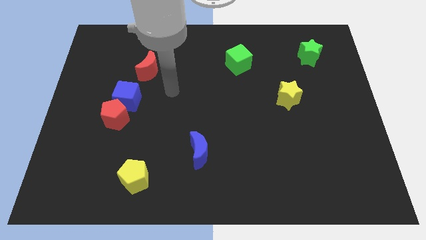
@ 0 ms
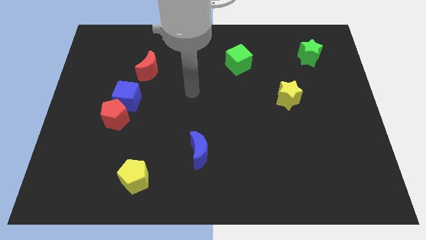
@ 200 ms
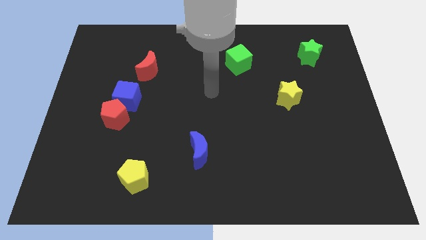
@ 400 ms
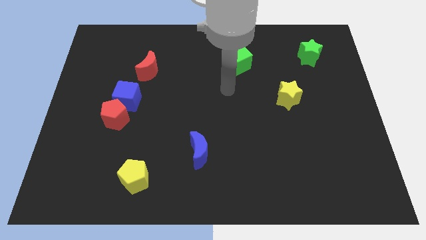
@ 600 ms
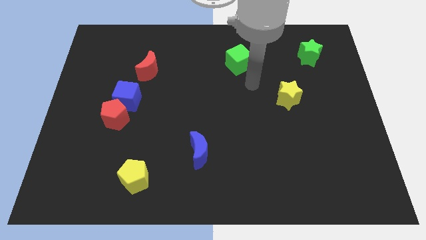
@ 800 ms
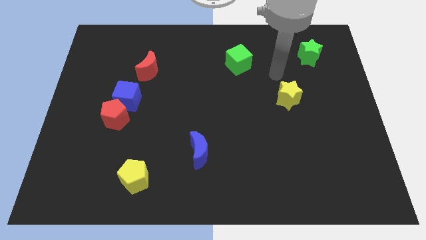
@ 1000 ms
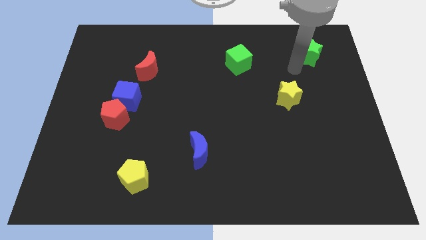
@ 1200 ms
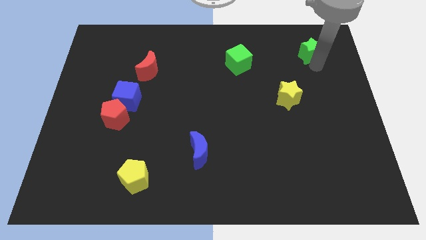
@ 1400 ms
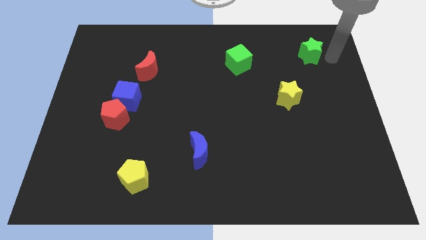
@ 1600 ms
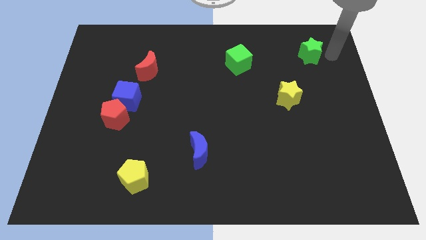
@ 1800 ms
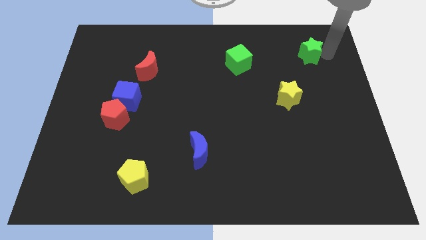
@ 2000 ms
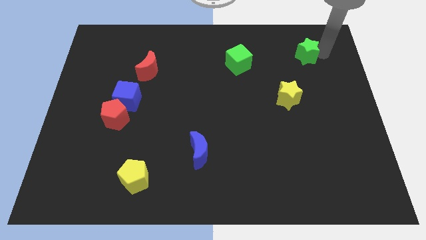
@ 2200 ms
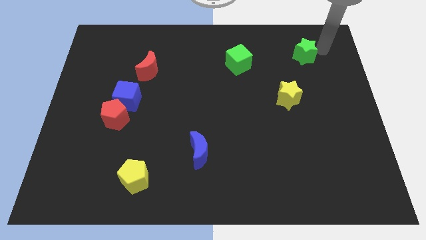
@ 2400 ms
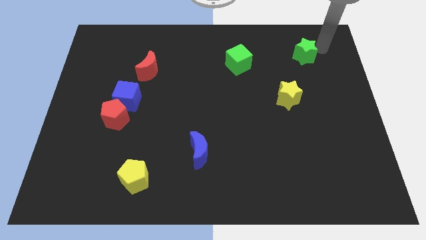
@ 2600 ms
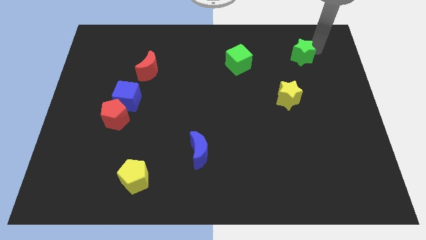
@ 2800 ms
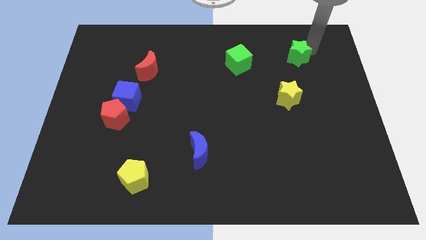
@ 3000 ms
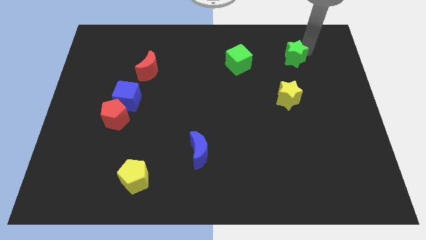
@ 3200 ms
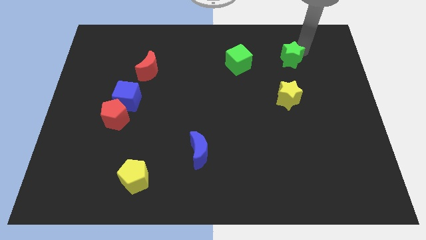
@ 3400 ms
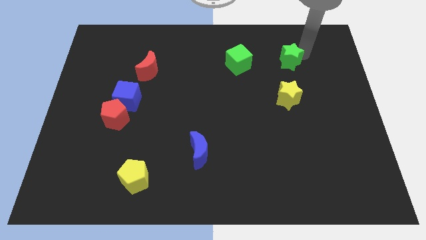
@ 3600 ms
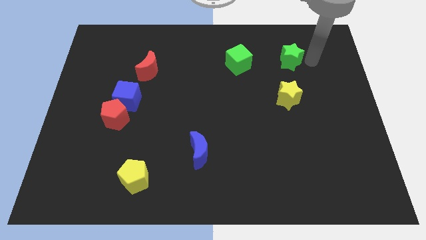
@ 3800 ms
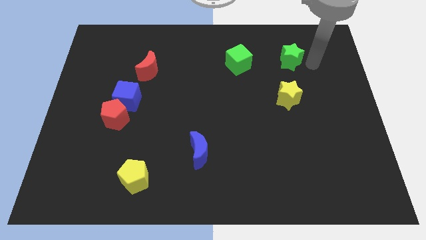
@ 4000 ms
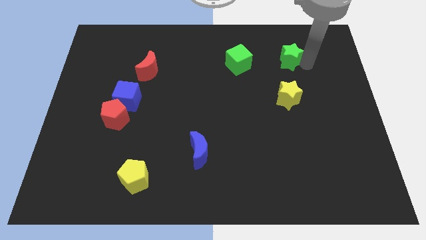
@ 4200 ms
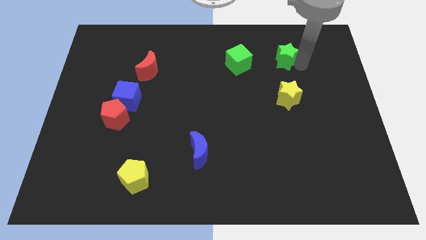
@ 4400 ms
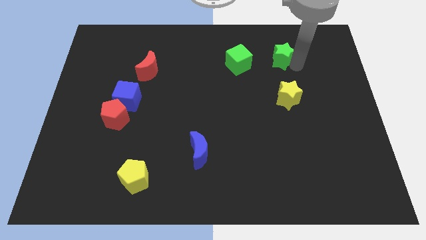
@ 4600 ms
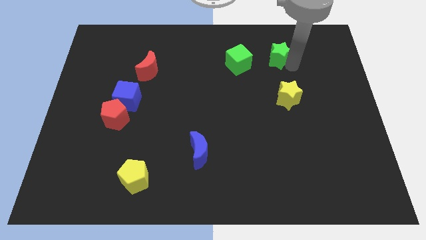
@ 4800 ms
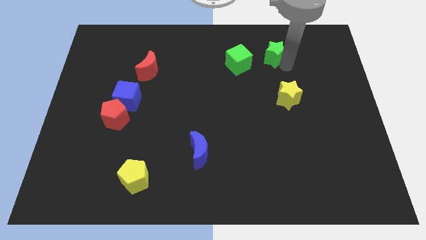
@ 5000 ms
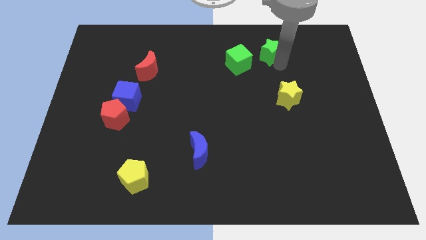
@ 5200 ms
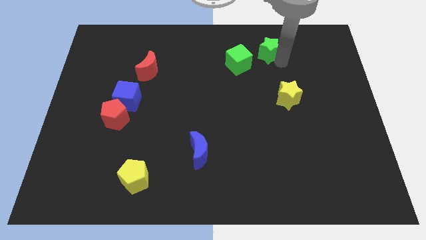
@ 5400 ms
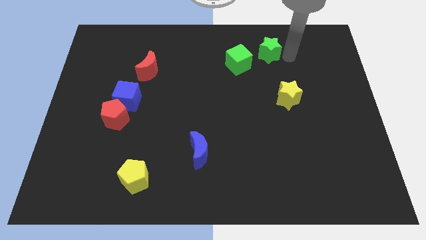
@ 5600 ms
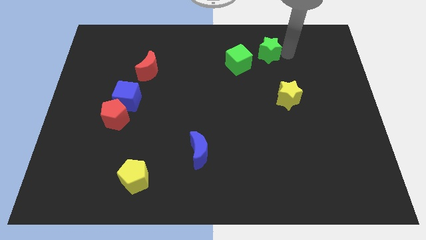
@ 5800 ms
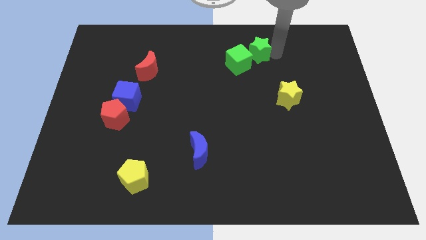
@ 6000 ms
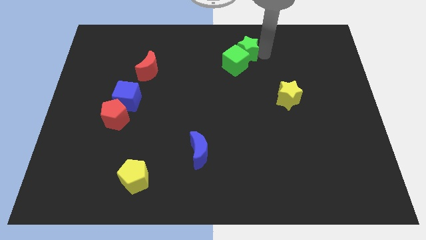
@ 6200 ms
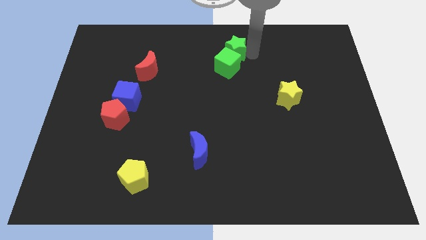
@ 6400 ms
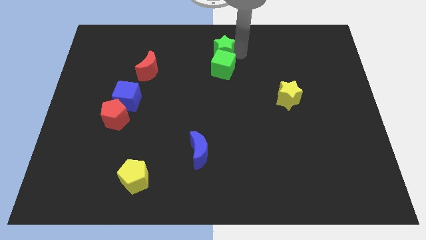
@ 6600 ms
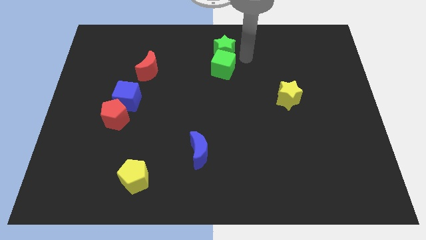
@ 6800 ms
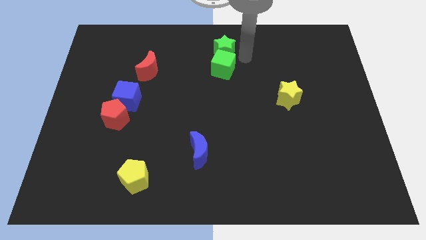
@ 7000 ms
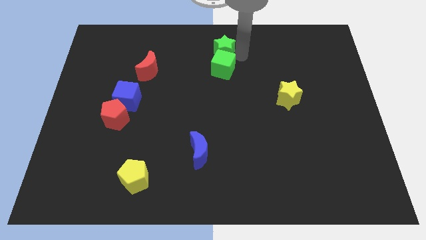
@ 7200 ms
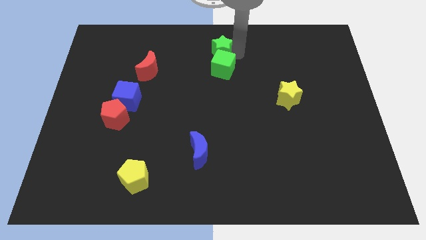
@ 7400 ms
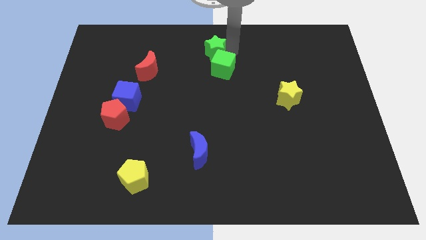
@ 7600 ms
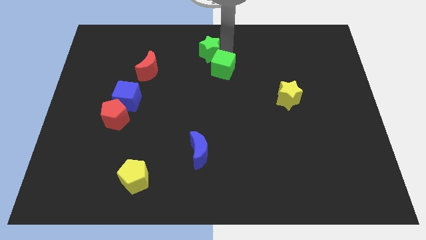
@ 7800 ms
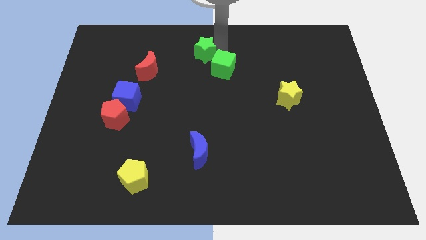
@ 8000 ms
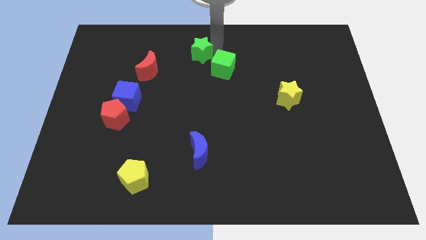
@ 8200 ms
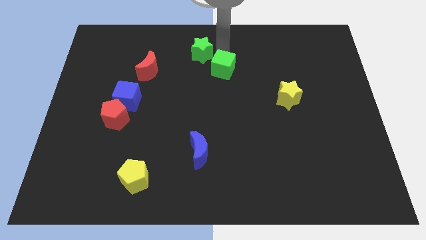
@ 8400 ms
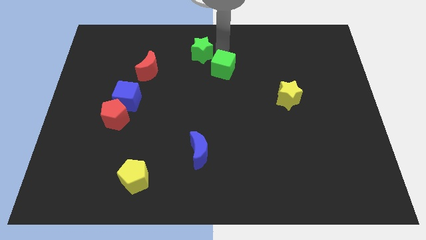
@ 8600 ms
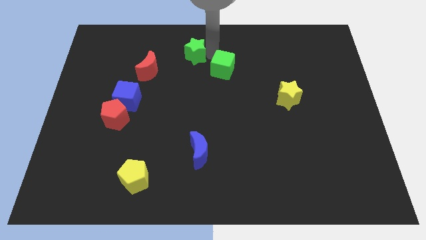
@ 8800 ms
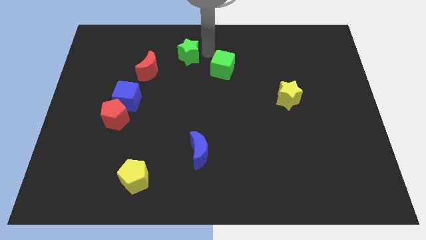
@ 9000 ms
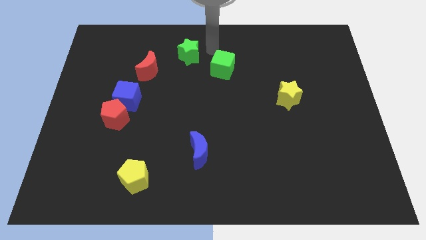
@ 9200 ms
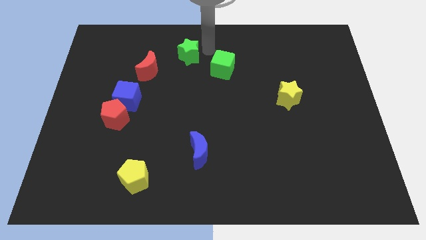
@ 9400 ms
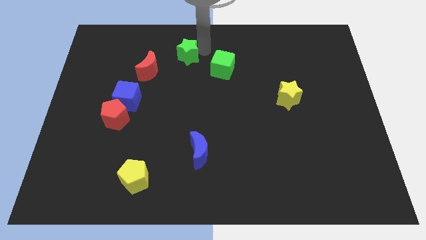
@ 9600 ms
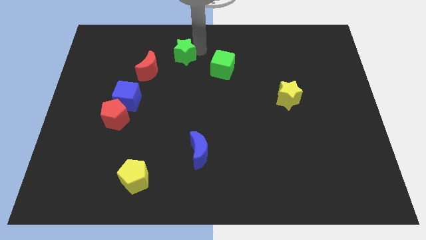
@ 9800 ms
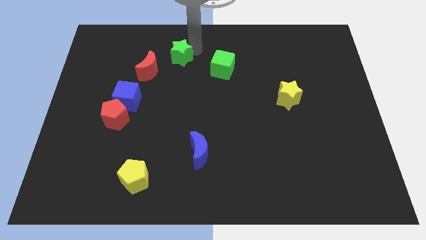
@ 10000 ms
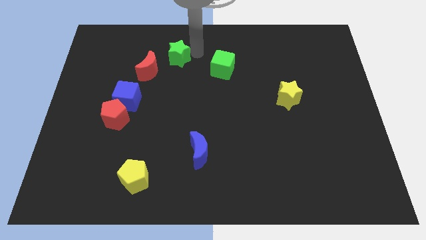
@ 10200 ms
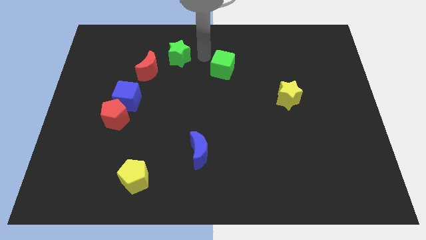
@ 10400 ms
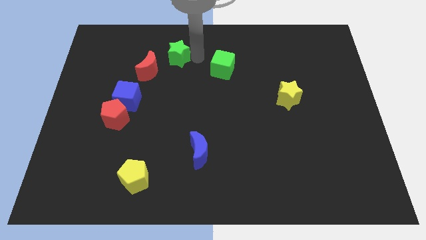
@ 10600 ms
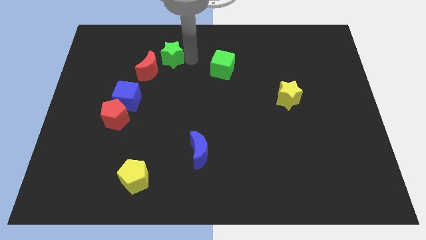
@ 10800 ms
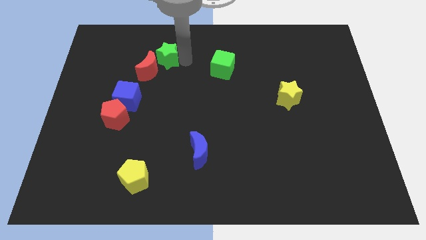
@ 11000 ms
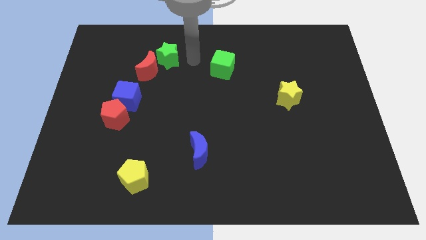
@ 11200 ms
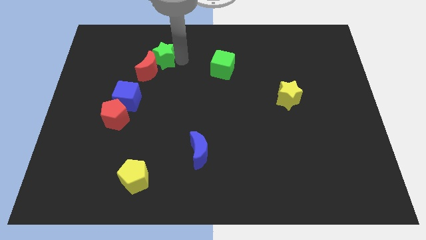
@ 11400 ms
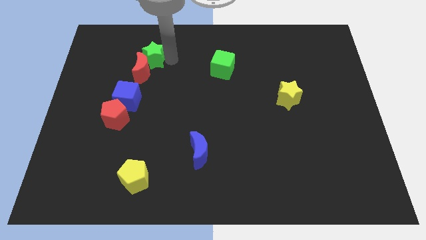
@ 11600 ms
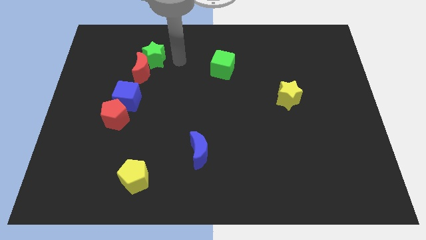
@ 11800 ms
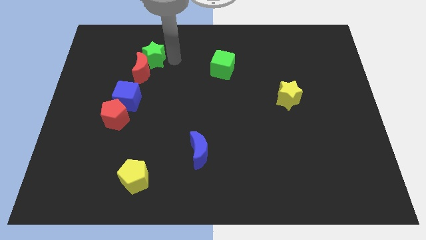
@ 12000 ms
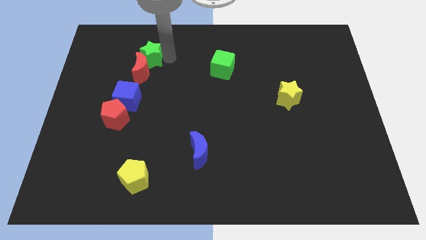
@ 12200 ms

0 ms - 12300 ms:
slide the green star to the top left side of the red moon

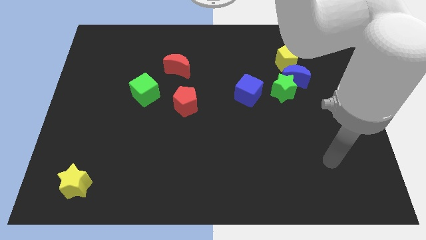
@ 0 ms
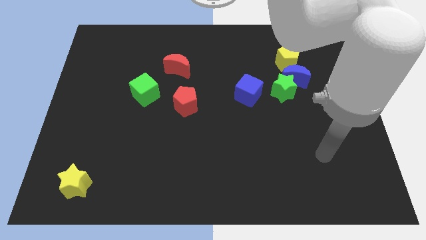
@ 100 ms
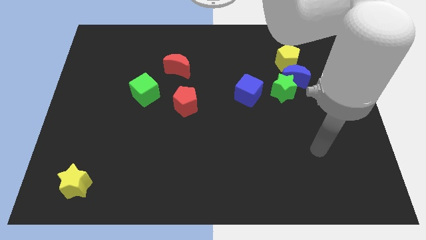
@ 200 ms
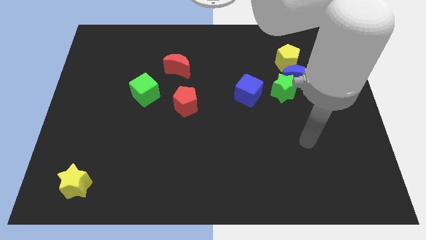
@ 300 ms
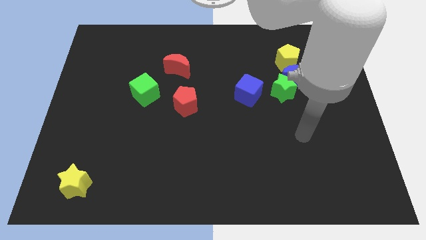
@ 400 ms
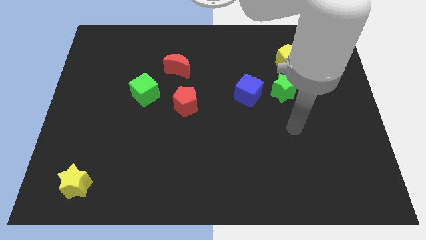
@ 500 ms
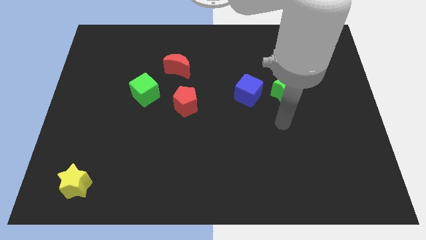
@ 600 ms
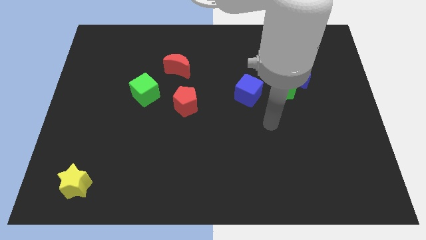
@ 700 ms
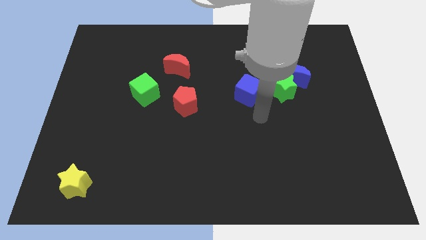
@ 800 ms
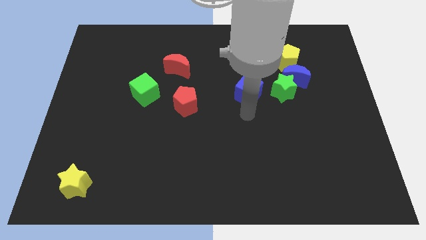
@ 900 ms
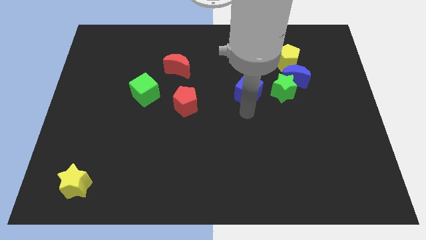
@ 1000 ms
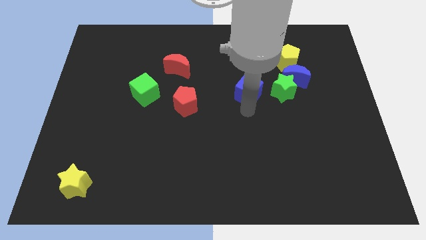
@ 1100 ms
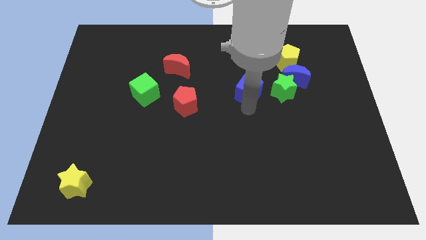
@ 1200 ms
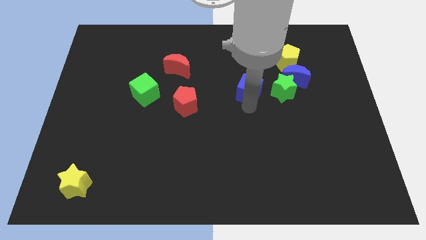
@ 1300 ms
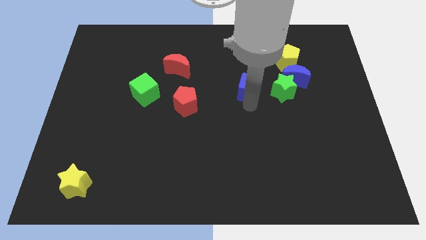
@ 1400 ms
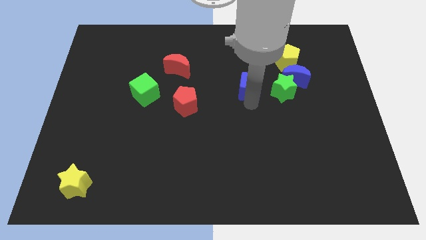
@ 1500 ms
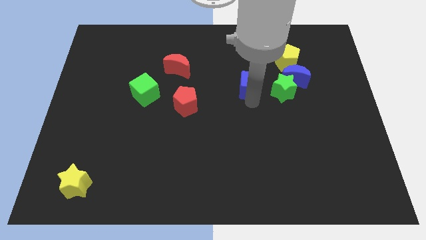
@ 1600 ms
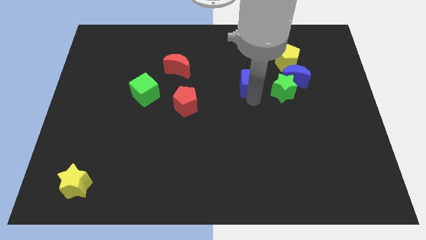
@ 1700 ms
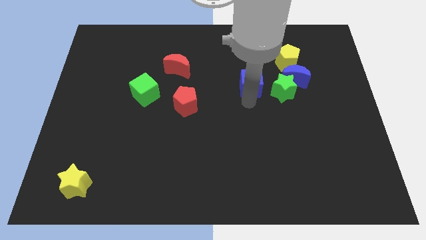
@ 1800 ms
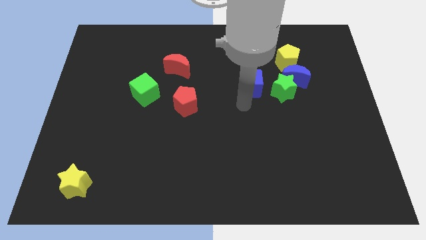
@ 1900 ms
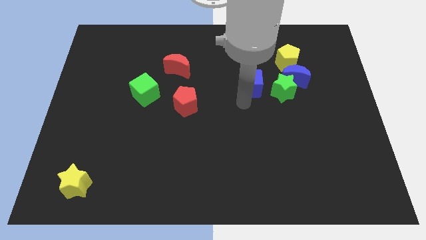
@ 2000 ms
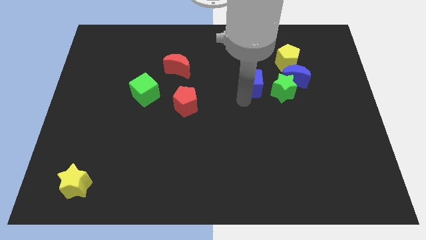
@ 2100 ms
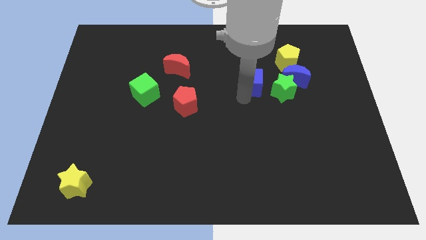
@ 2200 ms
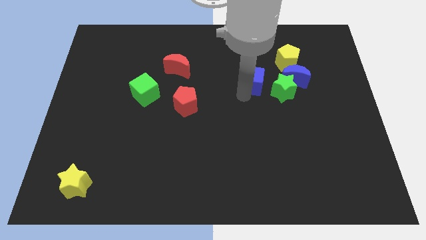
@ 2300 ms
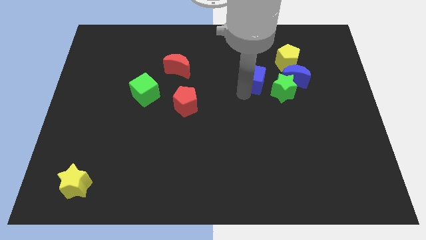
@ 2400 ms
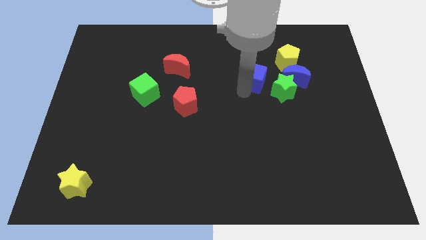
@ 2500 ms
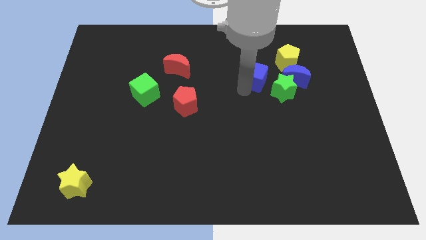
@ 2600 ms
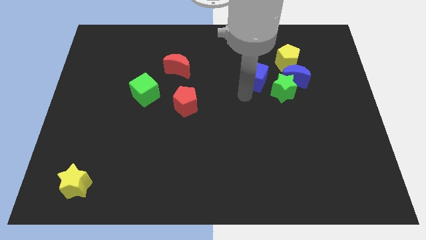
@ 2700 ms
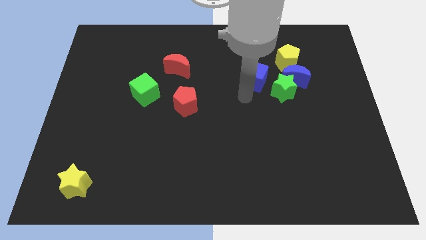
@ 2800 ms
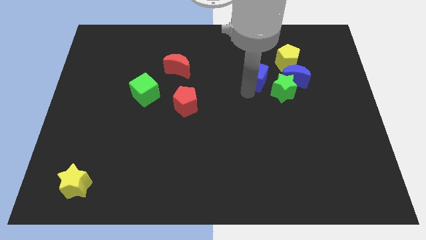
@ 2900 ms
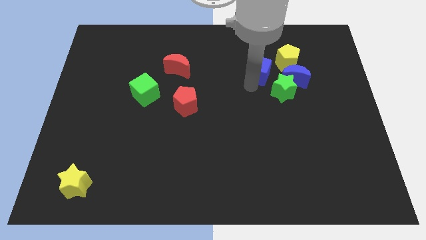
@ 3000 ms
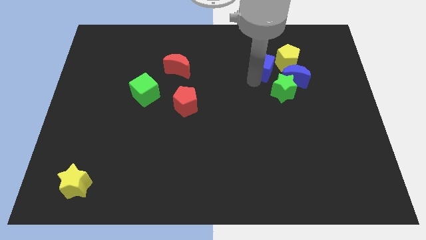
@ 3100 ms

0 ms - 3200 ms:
move the blue cube to the top side of the green star
